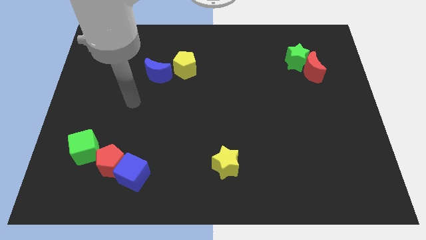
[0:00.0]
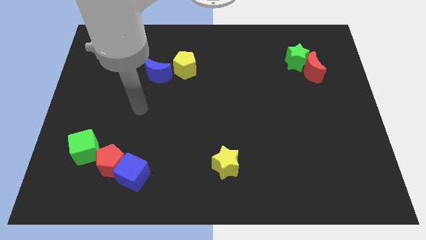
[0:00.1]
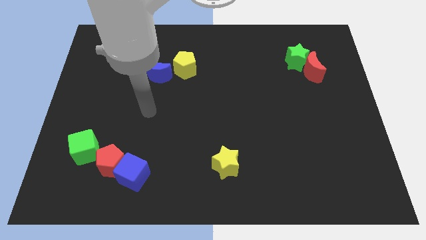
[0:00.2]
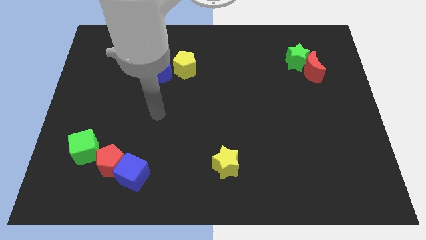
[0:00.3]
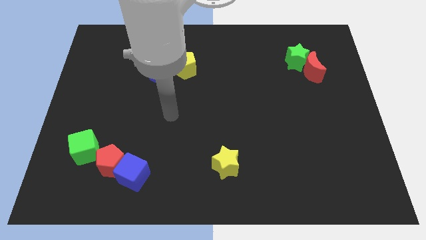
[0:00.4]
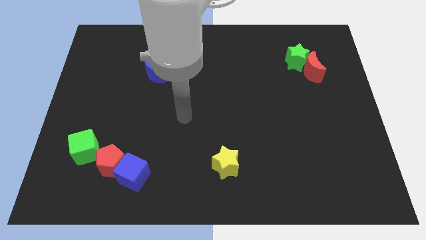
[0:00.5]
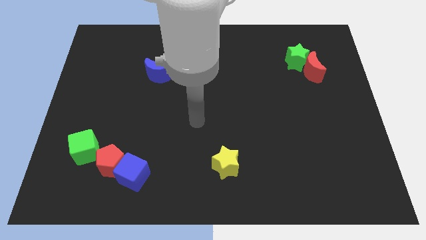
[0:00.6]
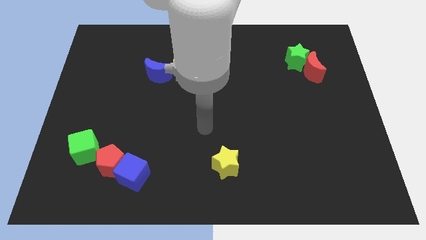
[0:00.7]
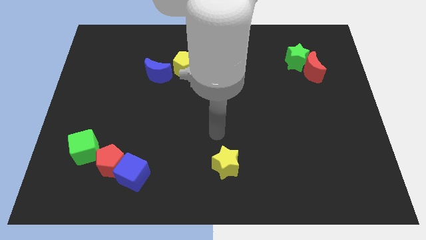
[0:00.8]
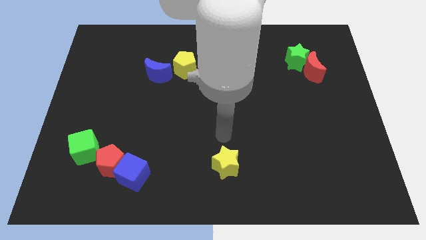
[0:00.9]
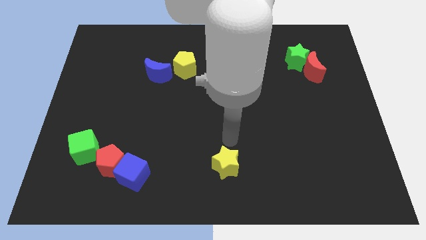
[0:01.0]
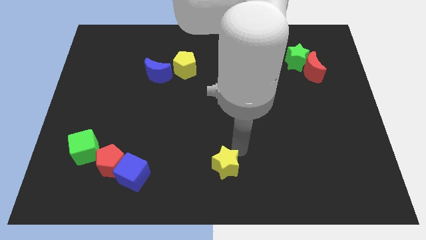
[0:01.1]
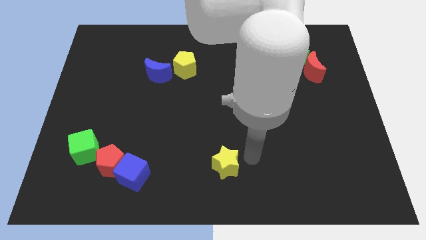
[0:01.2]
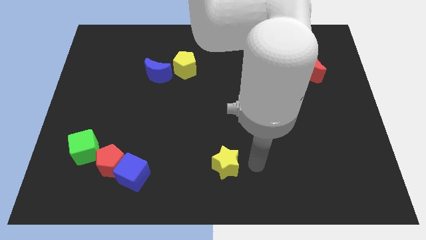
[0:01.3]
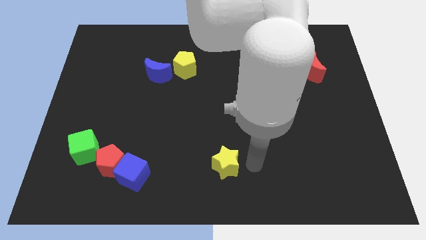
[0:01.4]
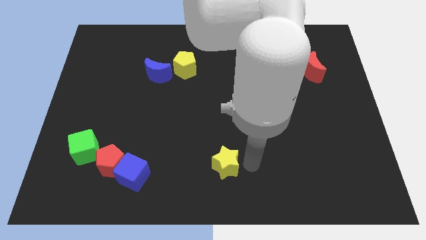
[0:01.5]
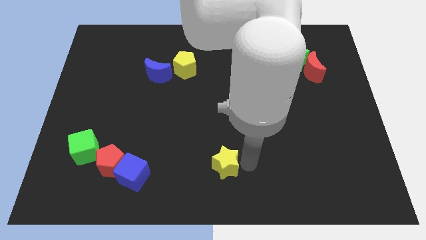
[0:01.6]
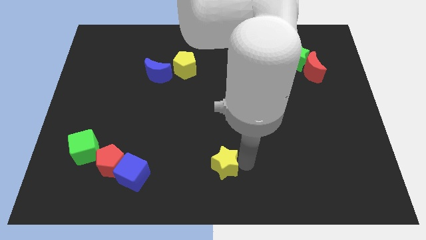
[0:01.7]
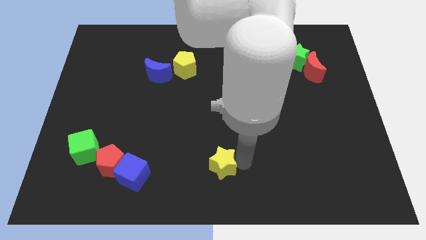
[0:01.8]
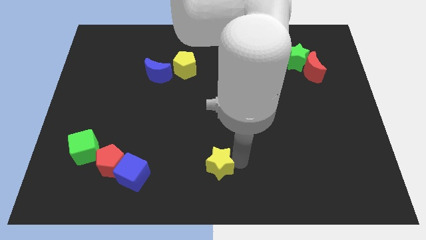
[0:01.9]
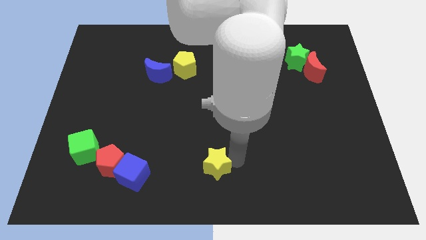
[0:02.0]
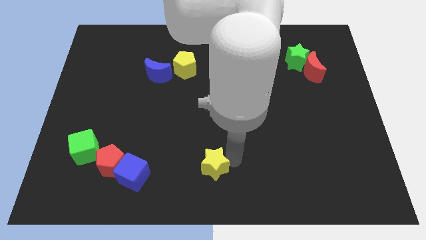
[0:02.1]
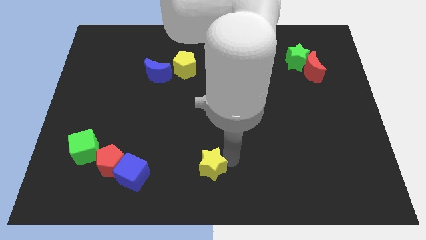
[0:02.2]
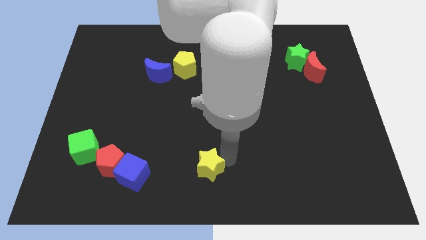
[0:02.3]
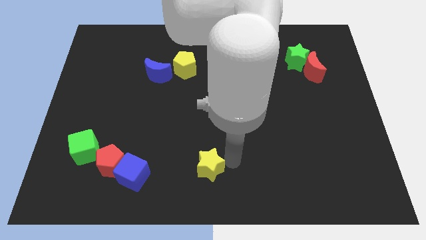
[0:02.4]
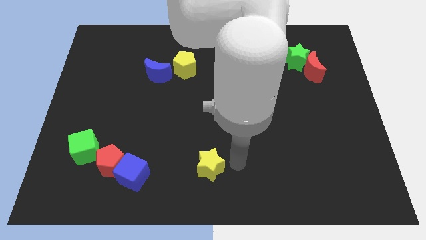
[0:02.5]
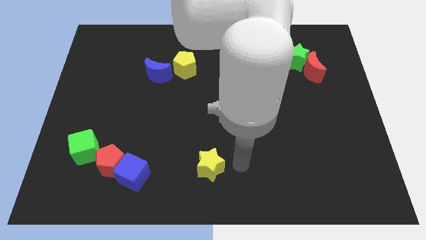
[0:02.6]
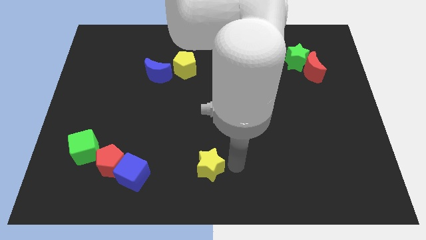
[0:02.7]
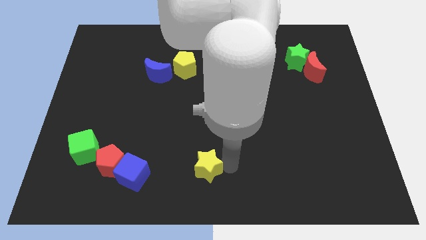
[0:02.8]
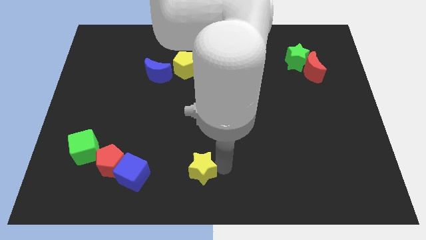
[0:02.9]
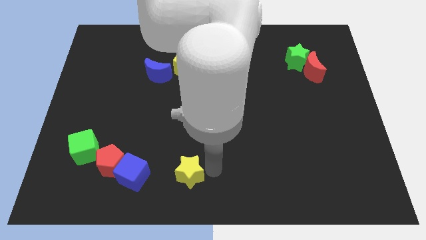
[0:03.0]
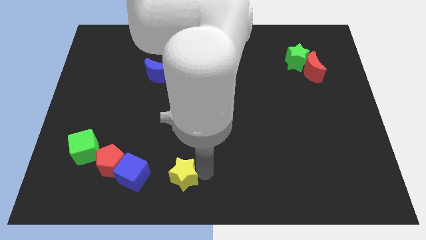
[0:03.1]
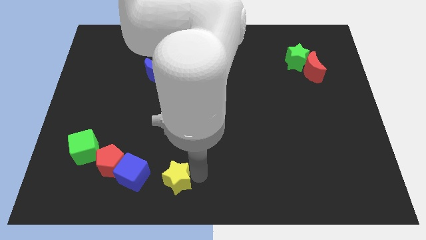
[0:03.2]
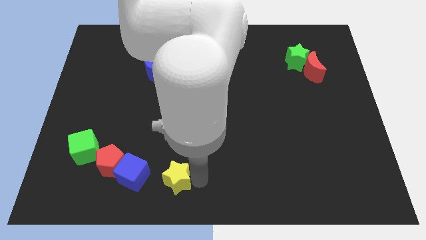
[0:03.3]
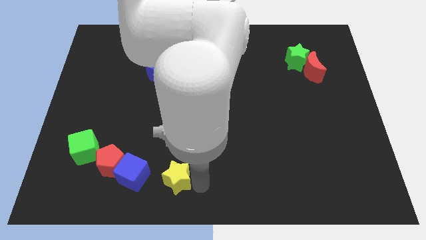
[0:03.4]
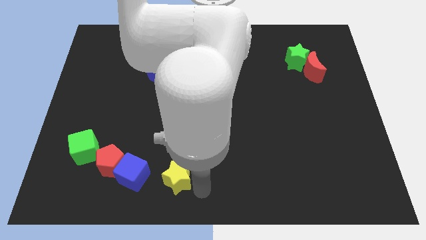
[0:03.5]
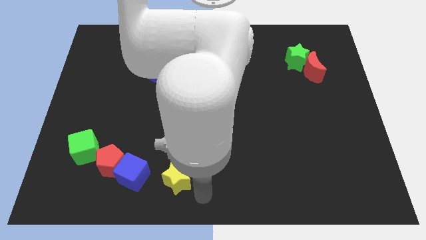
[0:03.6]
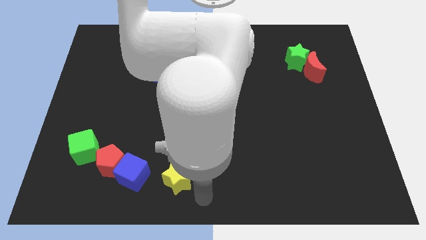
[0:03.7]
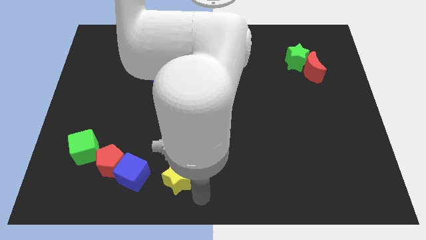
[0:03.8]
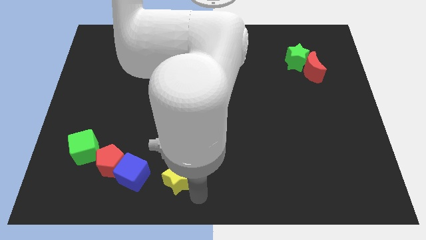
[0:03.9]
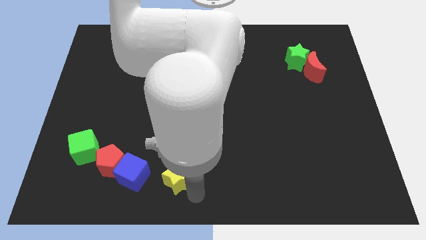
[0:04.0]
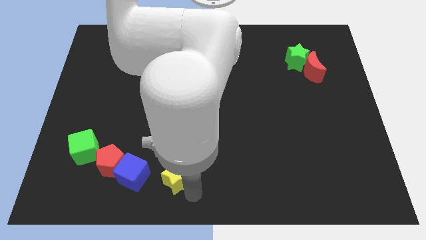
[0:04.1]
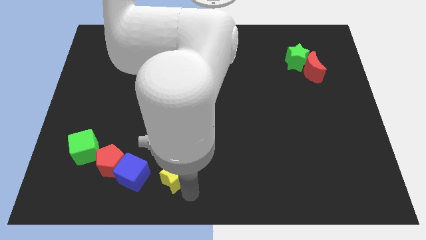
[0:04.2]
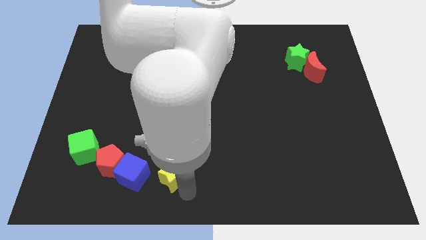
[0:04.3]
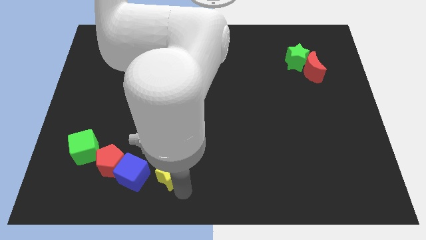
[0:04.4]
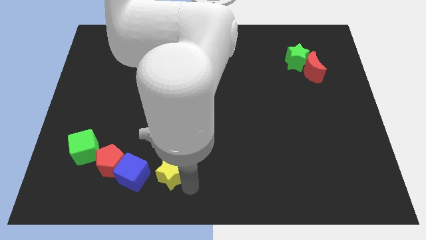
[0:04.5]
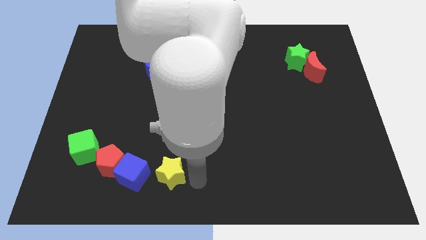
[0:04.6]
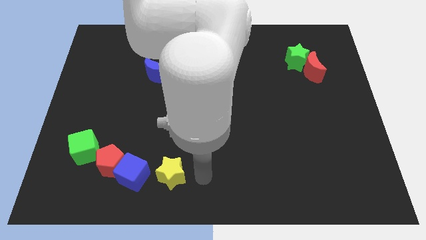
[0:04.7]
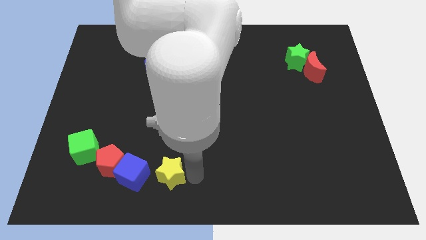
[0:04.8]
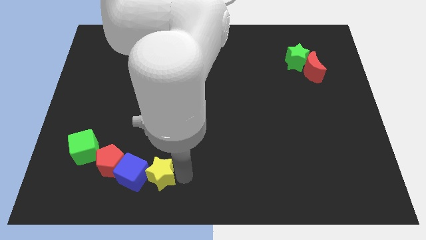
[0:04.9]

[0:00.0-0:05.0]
move the yellow star close to the blue cube

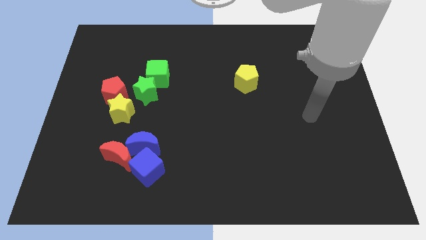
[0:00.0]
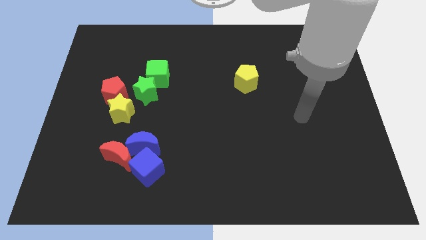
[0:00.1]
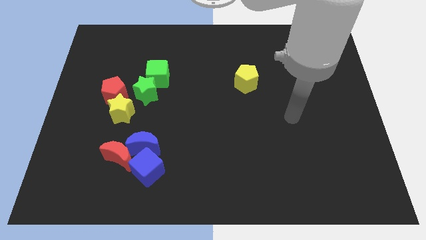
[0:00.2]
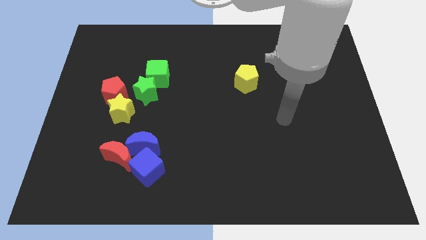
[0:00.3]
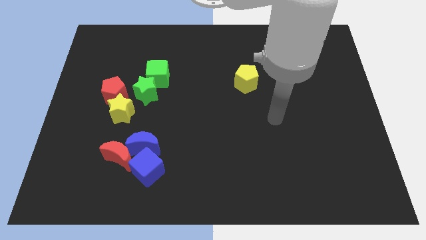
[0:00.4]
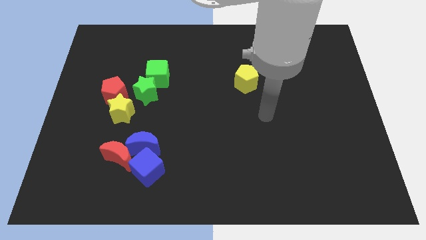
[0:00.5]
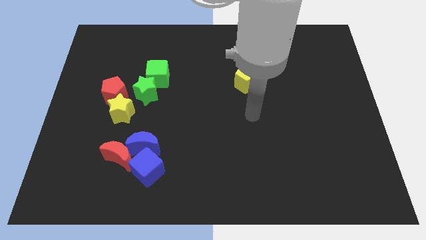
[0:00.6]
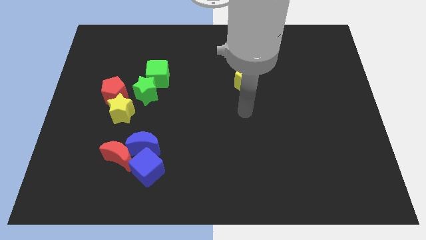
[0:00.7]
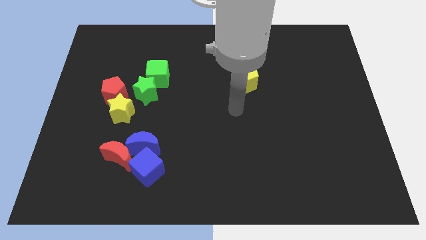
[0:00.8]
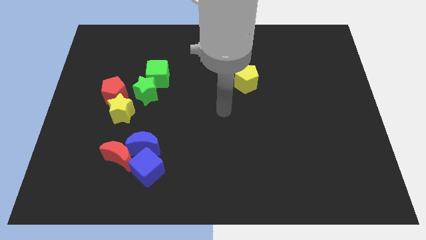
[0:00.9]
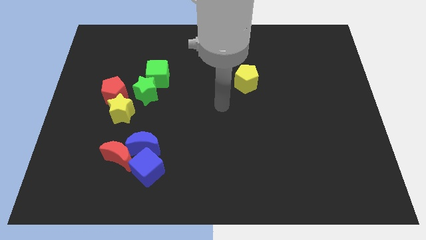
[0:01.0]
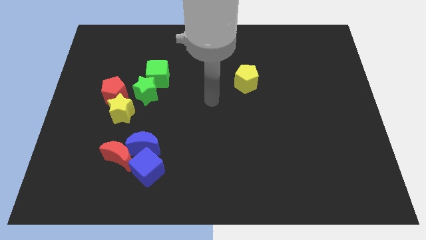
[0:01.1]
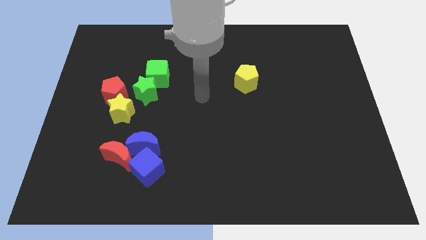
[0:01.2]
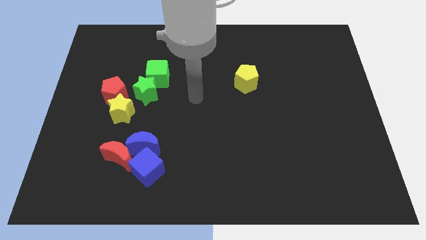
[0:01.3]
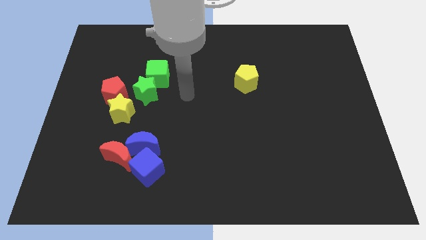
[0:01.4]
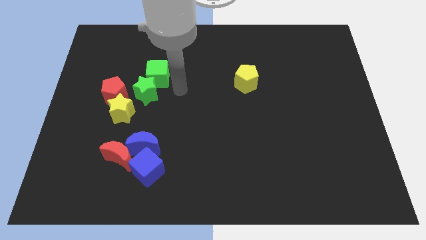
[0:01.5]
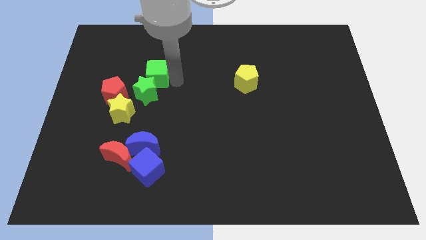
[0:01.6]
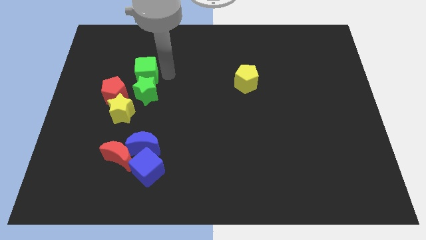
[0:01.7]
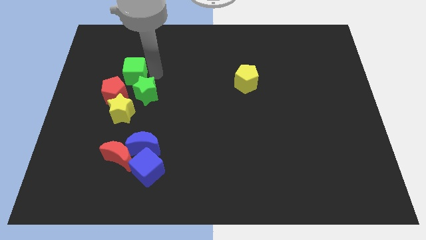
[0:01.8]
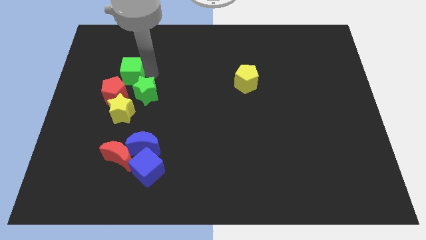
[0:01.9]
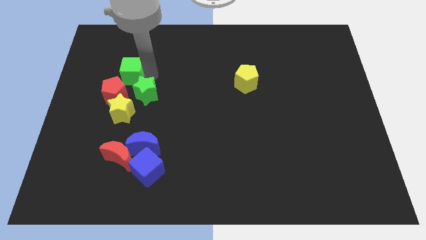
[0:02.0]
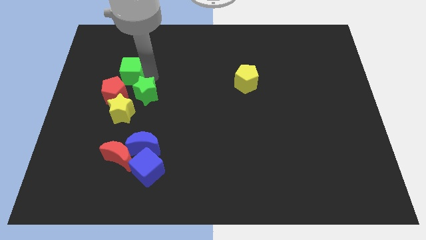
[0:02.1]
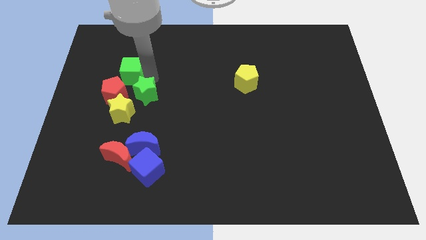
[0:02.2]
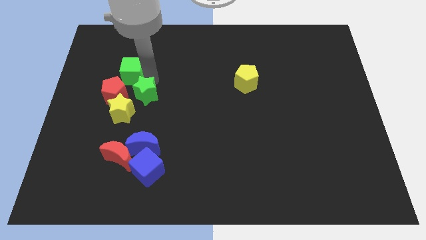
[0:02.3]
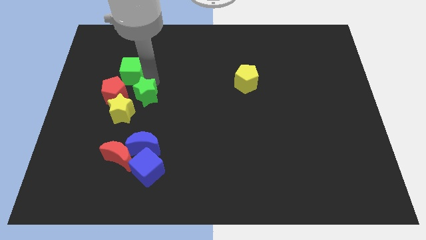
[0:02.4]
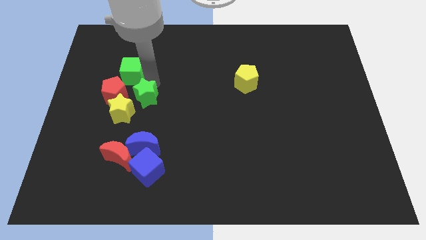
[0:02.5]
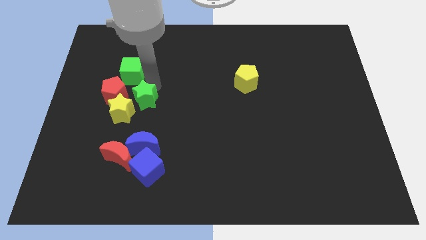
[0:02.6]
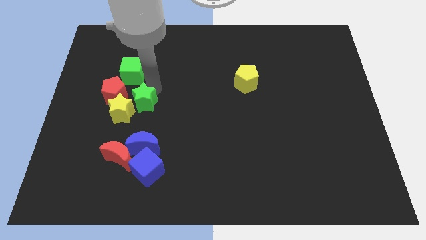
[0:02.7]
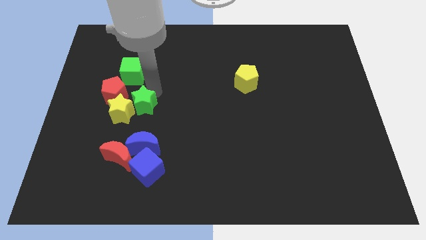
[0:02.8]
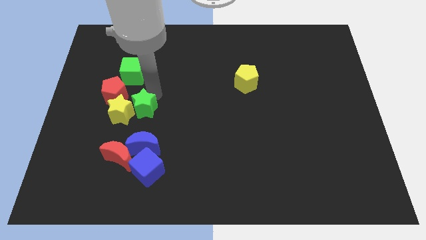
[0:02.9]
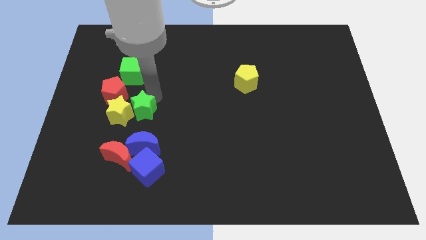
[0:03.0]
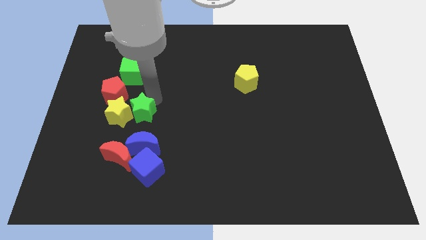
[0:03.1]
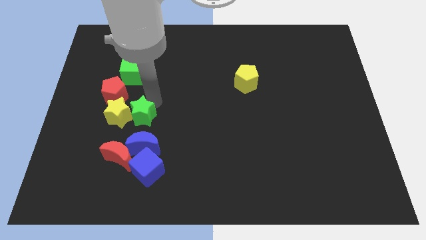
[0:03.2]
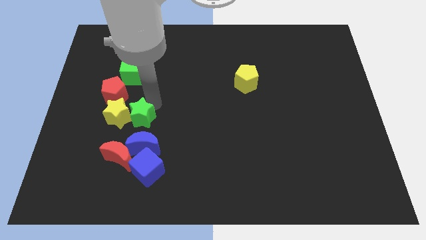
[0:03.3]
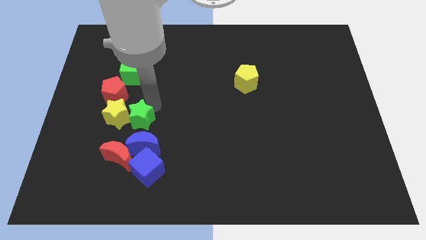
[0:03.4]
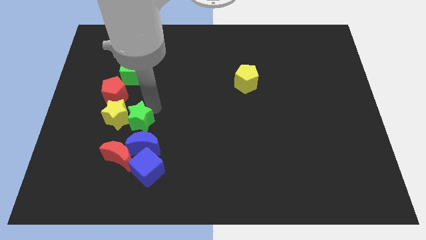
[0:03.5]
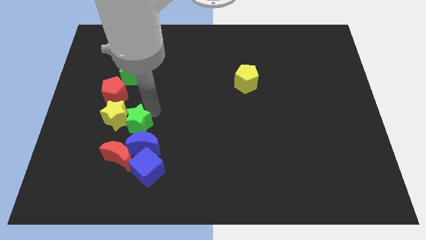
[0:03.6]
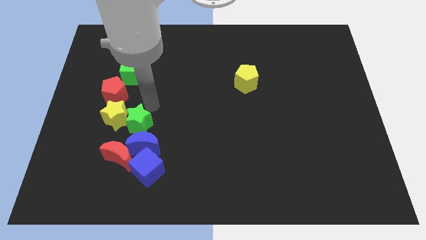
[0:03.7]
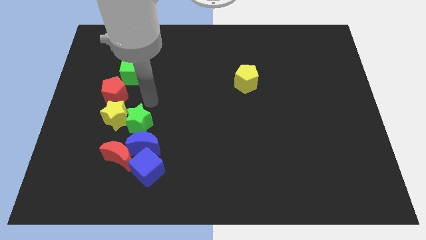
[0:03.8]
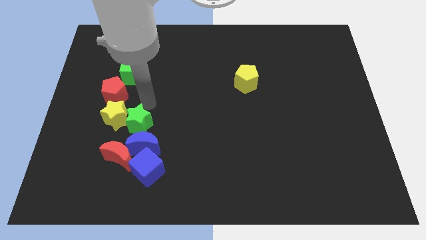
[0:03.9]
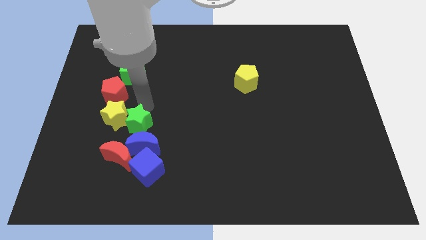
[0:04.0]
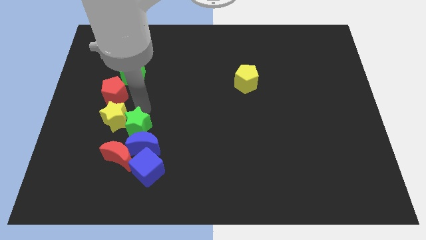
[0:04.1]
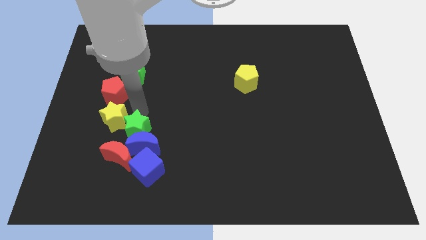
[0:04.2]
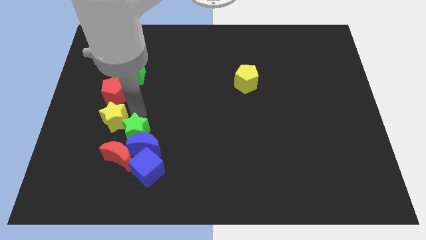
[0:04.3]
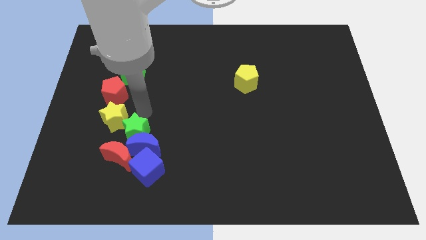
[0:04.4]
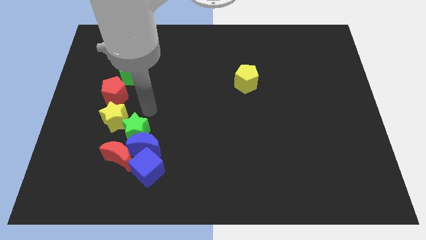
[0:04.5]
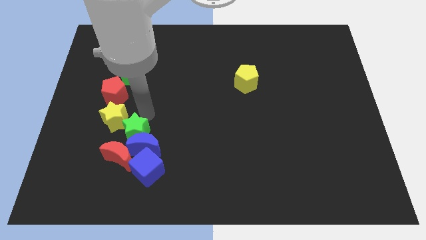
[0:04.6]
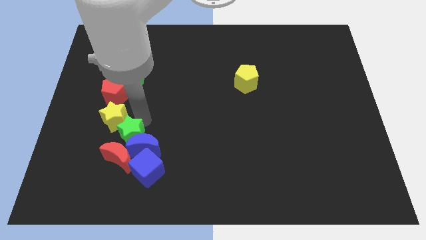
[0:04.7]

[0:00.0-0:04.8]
put the green star to the red moon
